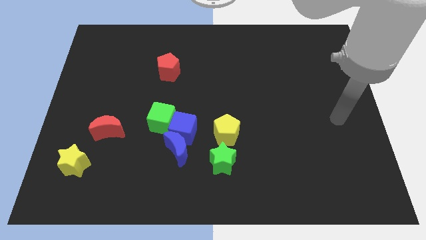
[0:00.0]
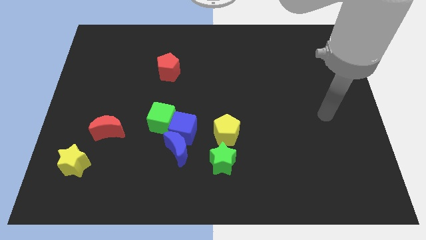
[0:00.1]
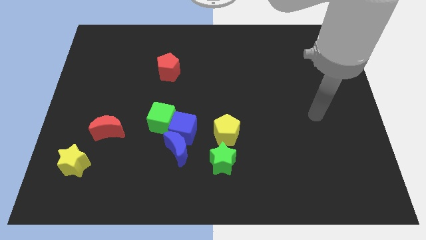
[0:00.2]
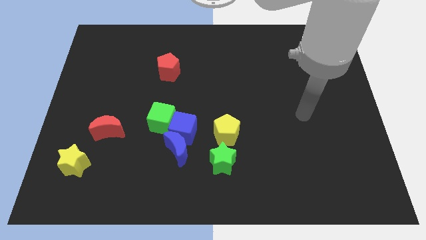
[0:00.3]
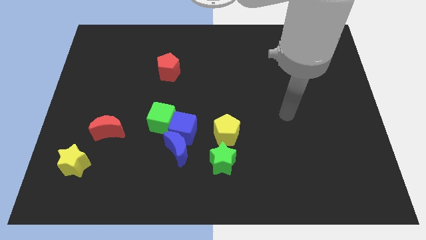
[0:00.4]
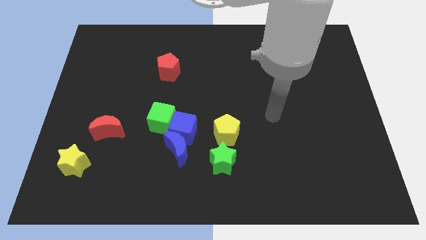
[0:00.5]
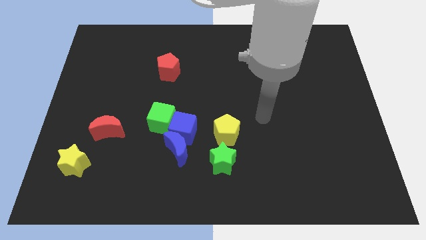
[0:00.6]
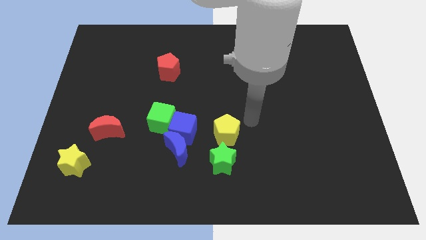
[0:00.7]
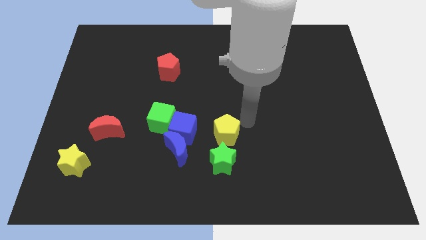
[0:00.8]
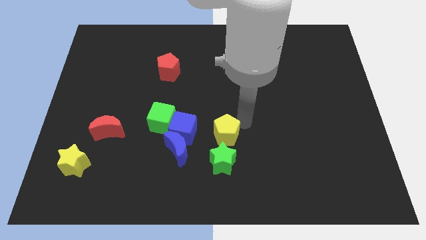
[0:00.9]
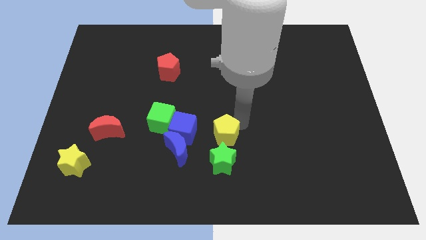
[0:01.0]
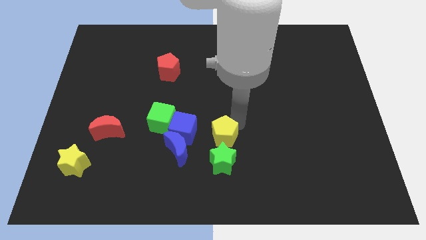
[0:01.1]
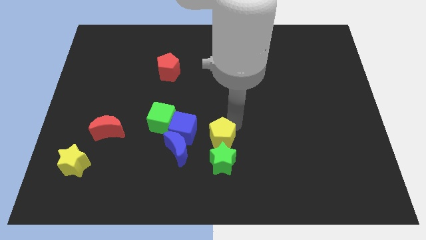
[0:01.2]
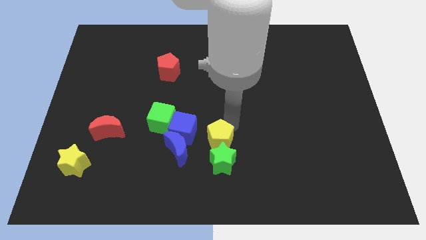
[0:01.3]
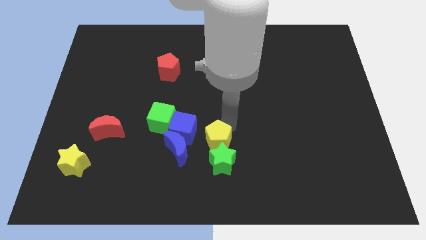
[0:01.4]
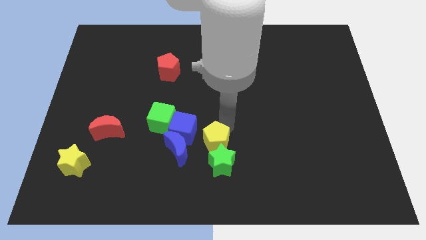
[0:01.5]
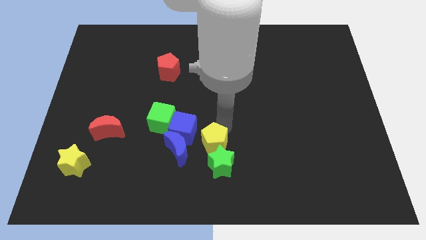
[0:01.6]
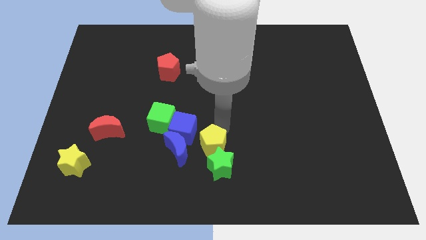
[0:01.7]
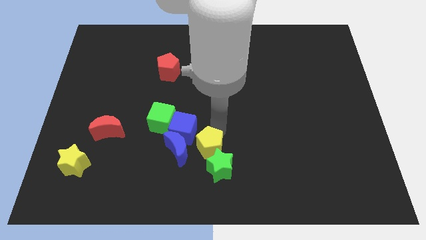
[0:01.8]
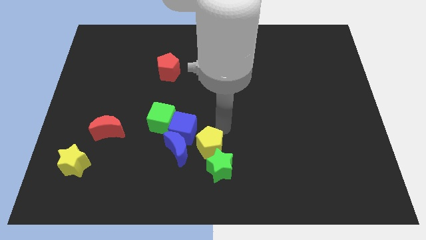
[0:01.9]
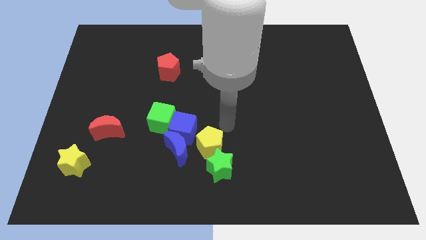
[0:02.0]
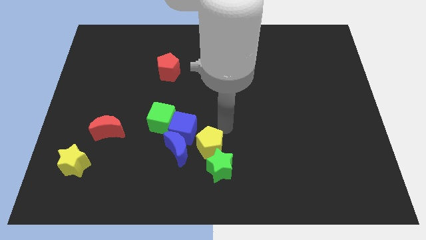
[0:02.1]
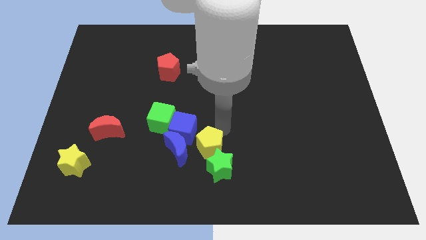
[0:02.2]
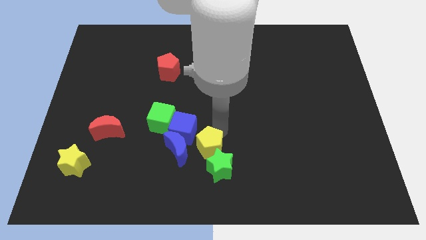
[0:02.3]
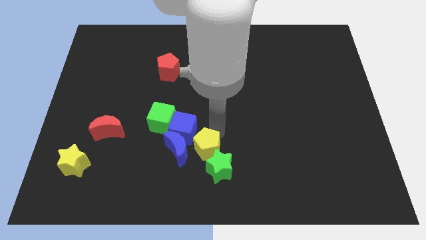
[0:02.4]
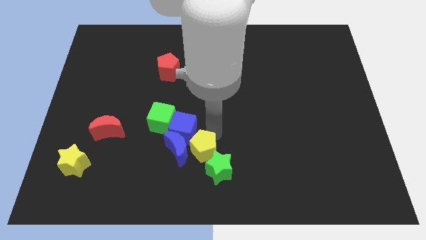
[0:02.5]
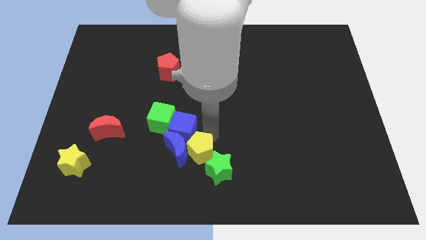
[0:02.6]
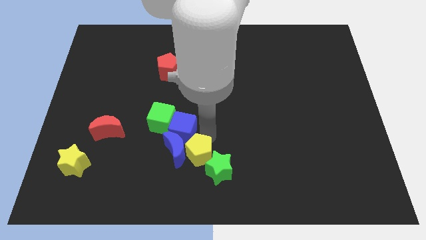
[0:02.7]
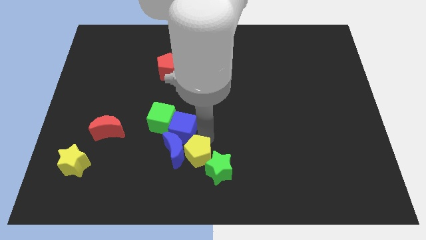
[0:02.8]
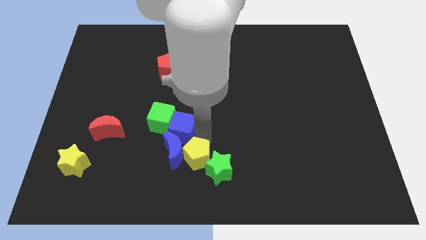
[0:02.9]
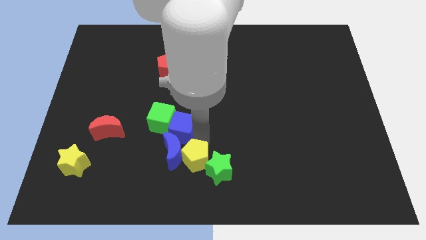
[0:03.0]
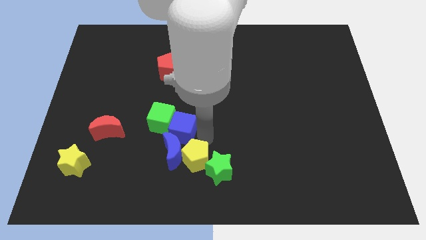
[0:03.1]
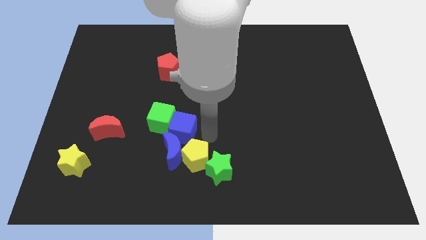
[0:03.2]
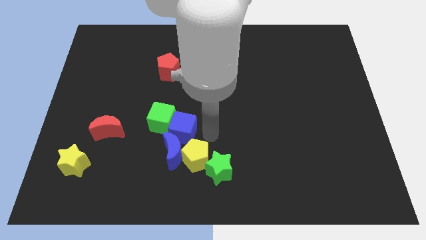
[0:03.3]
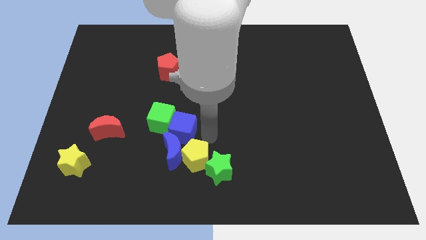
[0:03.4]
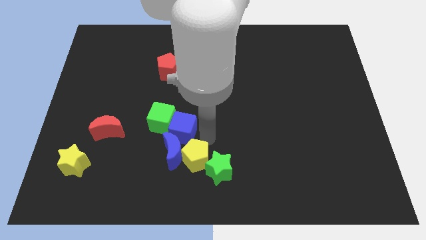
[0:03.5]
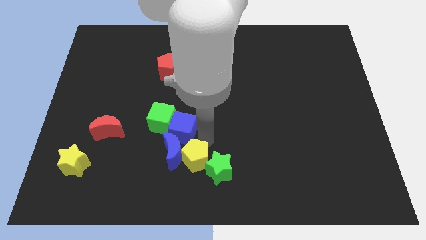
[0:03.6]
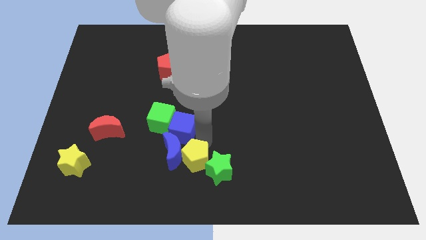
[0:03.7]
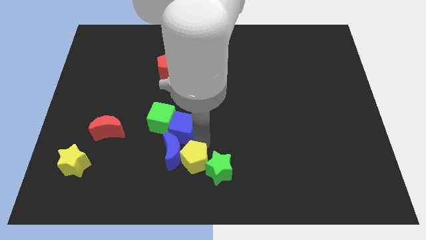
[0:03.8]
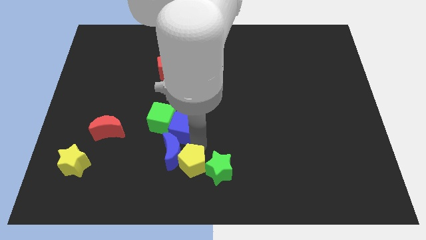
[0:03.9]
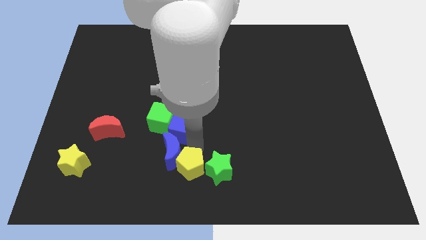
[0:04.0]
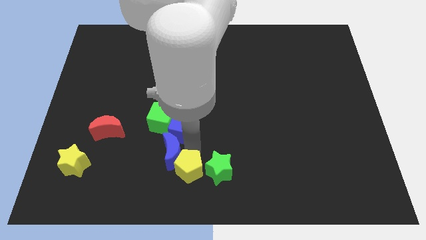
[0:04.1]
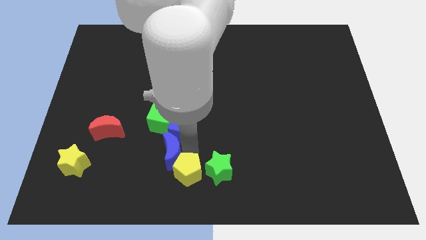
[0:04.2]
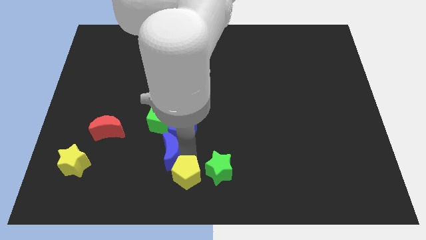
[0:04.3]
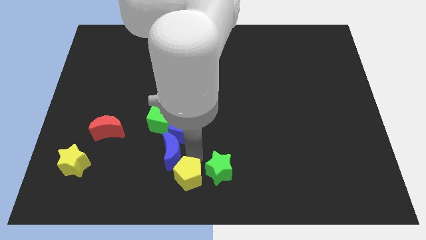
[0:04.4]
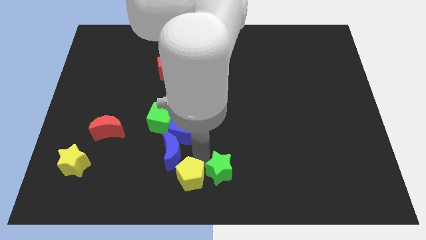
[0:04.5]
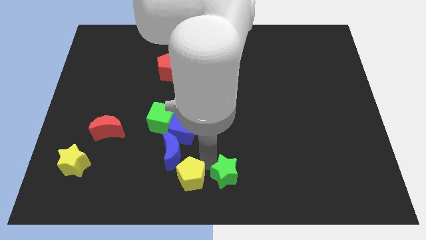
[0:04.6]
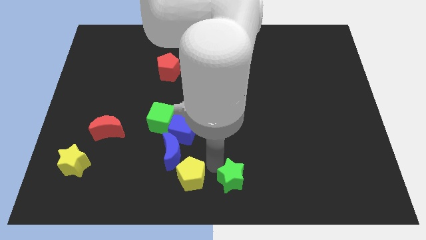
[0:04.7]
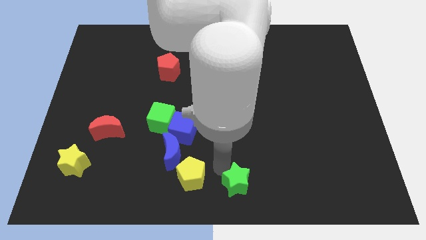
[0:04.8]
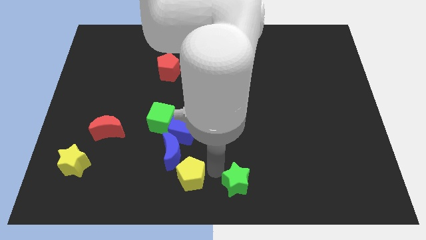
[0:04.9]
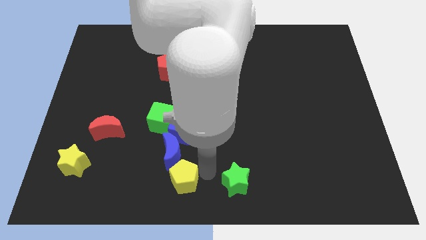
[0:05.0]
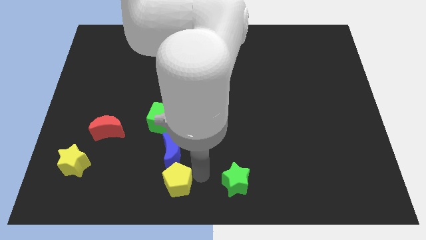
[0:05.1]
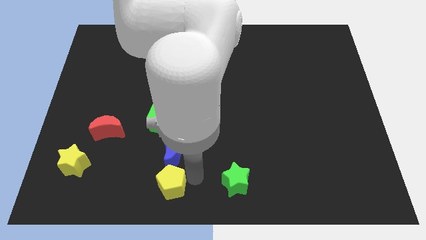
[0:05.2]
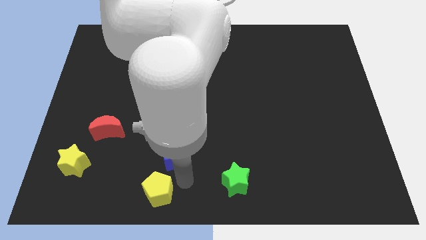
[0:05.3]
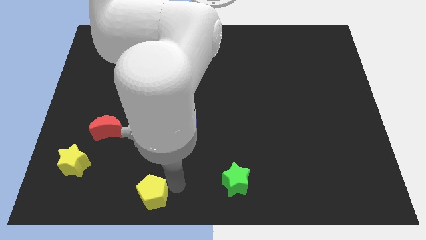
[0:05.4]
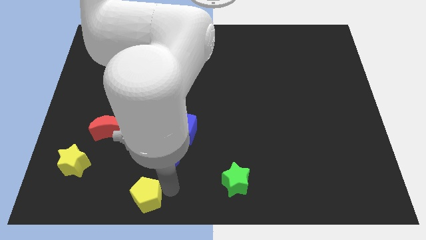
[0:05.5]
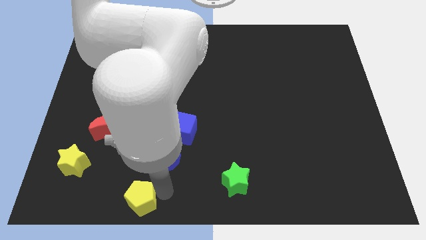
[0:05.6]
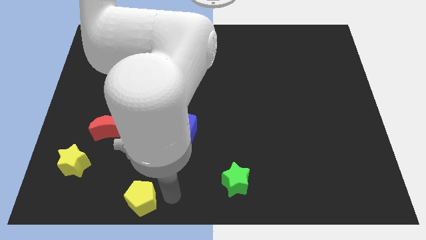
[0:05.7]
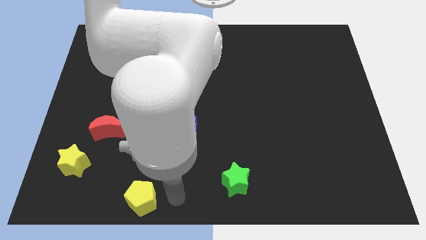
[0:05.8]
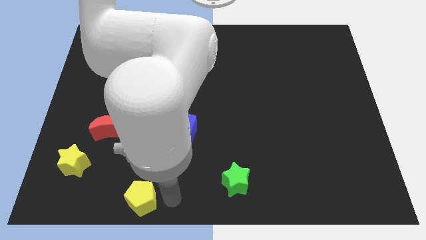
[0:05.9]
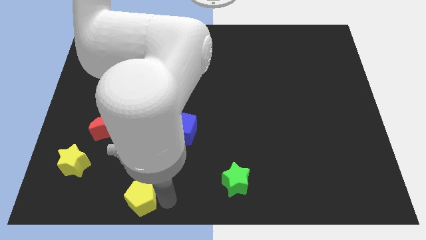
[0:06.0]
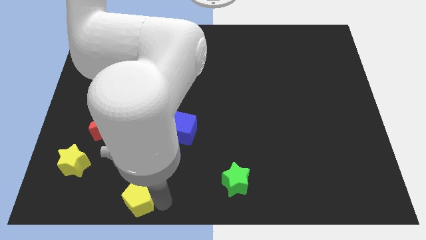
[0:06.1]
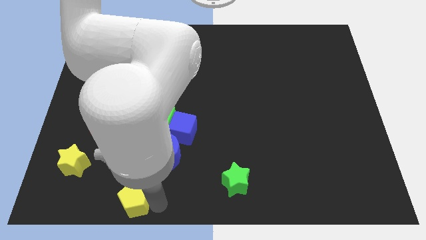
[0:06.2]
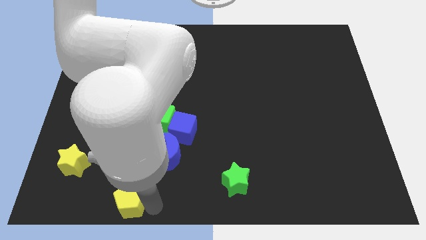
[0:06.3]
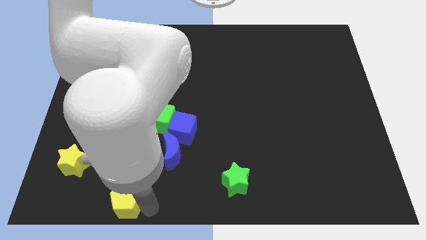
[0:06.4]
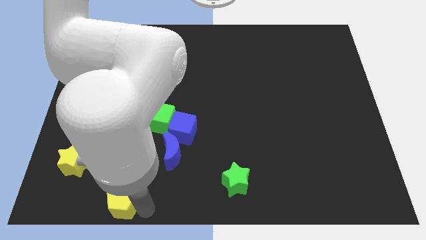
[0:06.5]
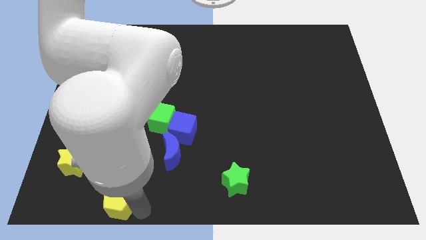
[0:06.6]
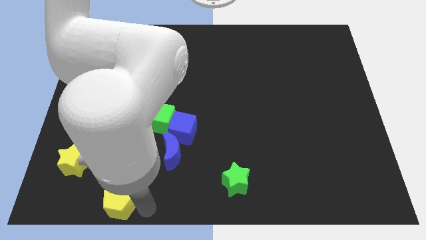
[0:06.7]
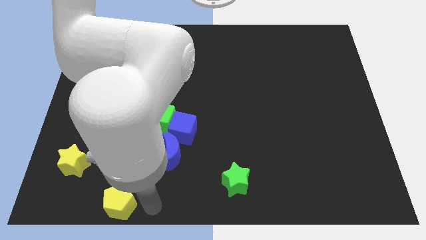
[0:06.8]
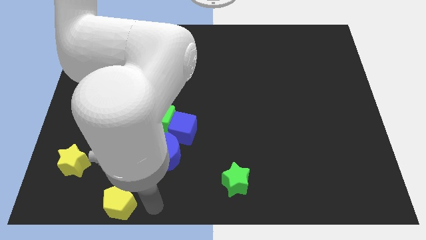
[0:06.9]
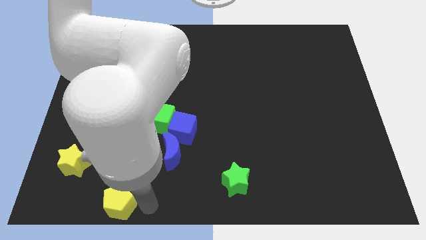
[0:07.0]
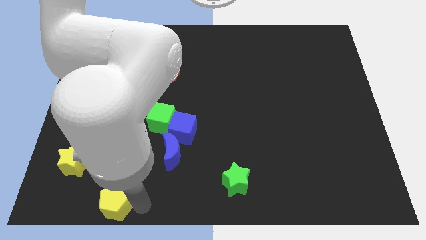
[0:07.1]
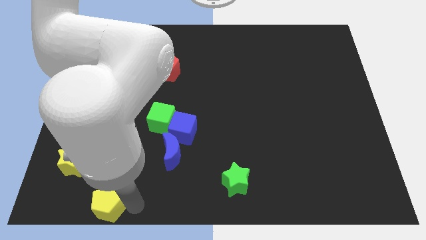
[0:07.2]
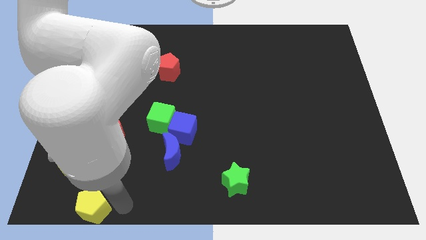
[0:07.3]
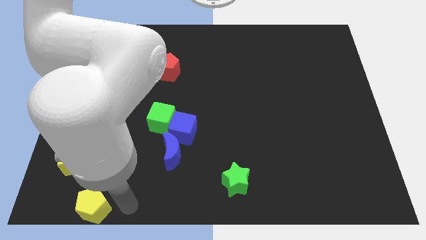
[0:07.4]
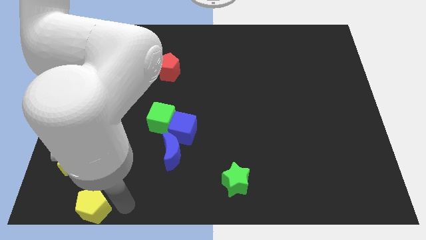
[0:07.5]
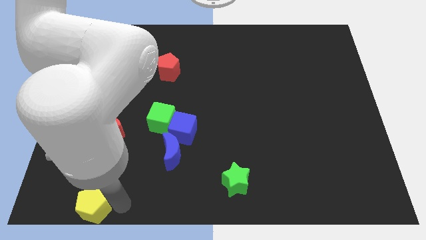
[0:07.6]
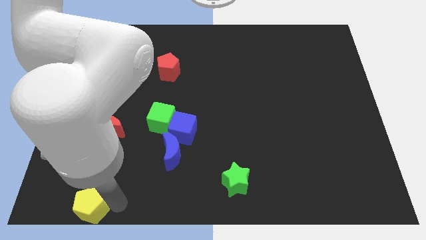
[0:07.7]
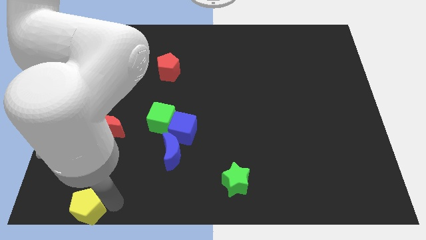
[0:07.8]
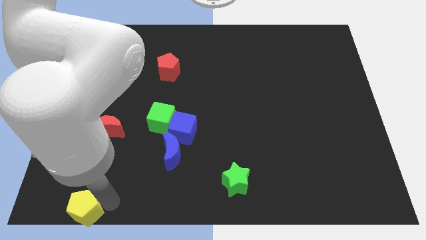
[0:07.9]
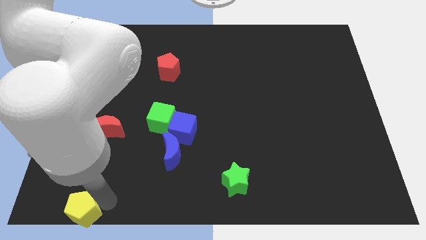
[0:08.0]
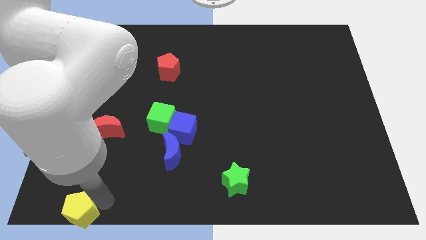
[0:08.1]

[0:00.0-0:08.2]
put the yellow pentagon to the bottom left of the board
